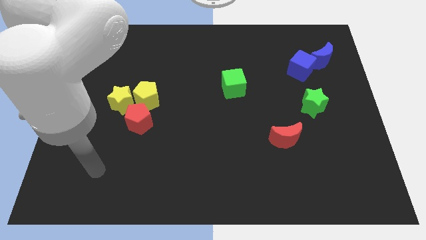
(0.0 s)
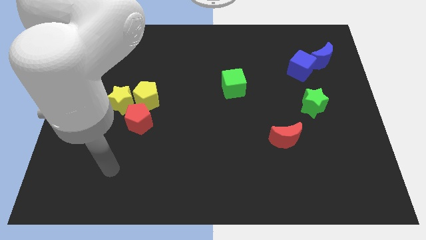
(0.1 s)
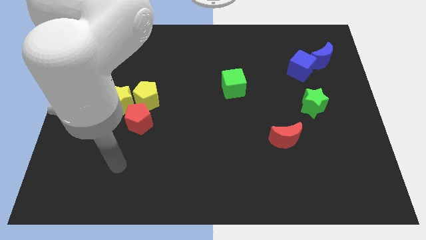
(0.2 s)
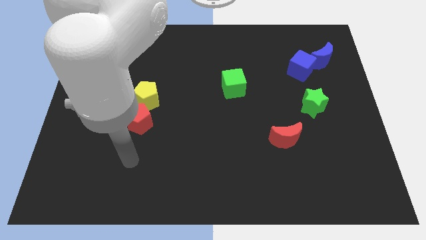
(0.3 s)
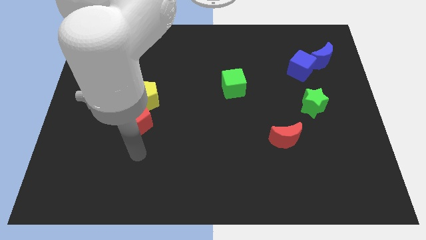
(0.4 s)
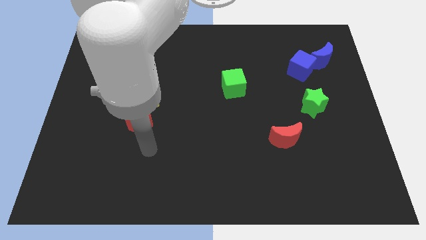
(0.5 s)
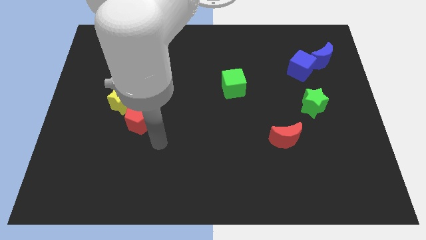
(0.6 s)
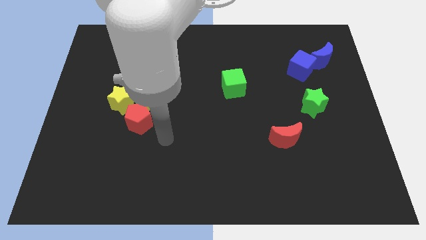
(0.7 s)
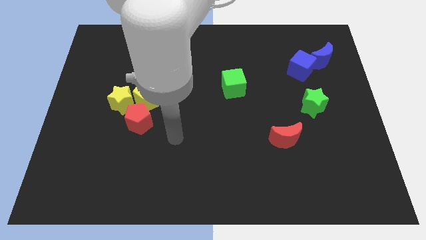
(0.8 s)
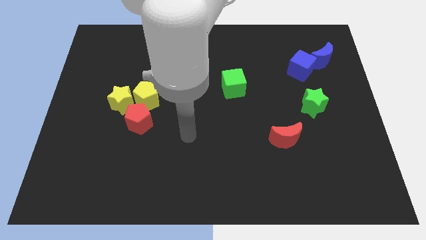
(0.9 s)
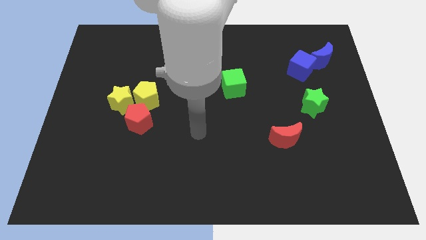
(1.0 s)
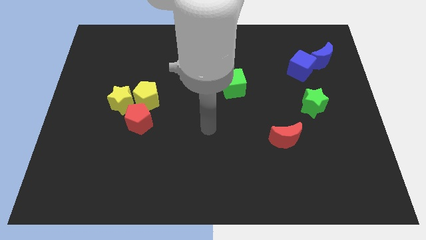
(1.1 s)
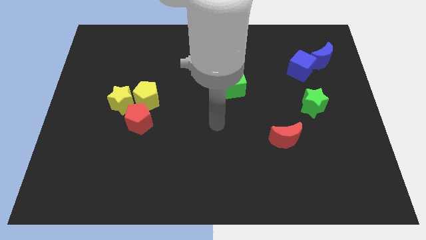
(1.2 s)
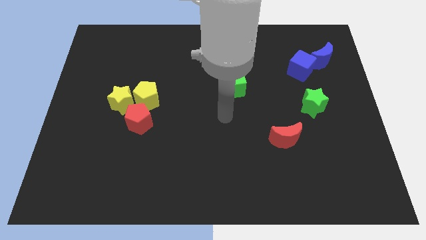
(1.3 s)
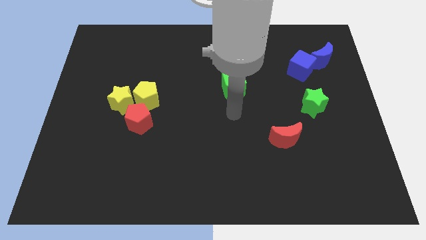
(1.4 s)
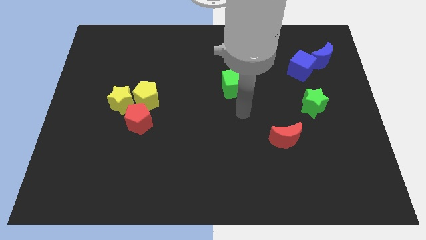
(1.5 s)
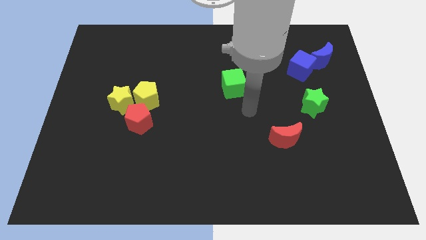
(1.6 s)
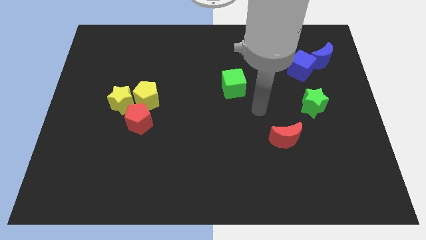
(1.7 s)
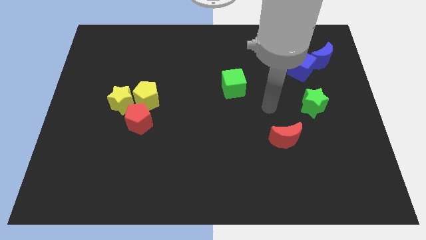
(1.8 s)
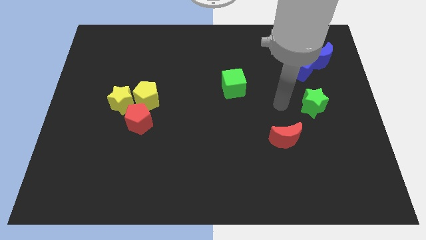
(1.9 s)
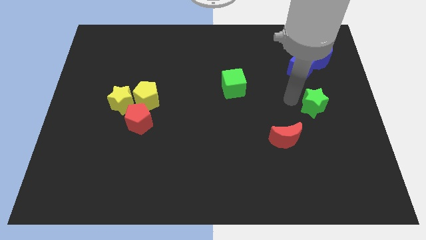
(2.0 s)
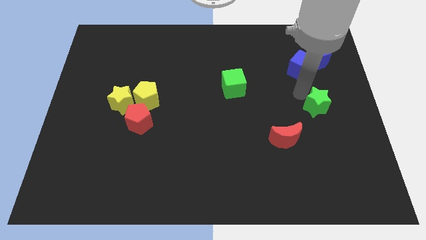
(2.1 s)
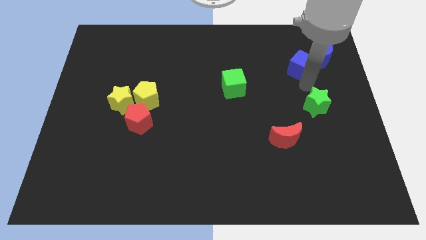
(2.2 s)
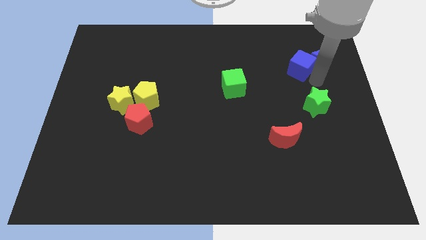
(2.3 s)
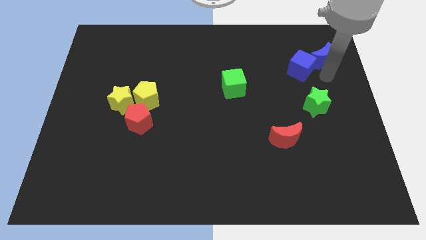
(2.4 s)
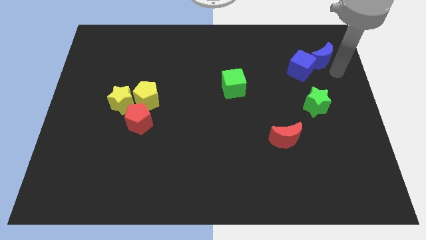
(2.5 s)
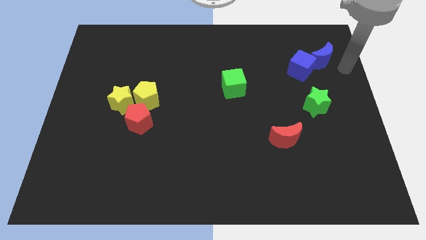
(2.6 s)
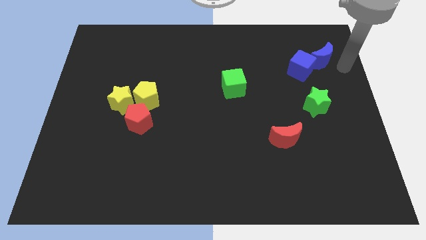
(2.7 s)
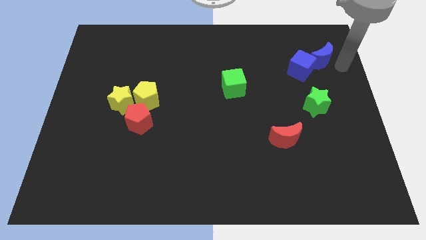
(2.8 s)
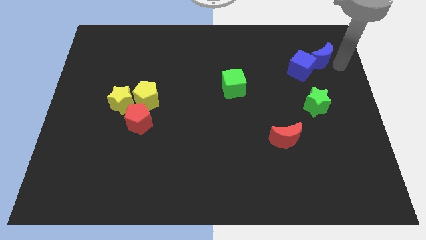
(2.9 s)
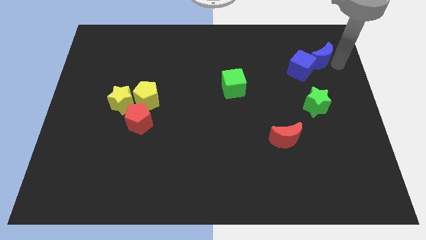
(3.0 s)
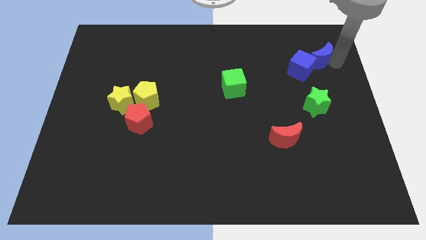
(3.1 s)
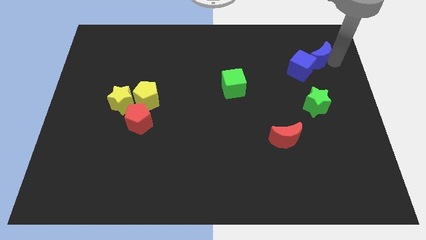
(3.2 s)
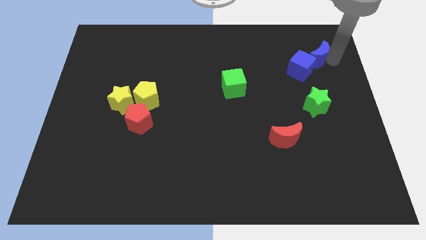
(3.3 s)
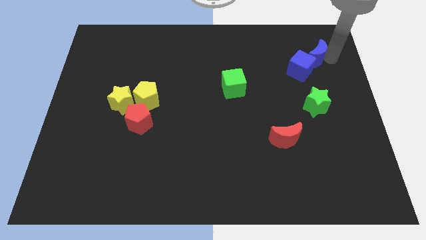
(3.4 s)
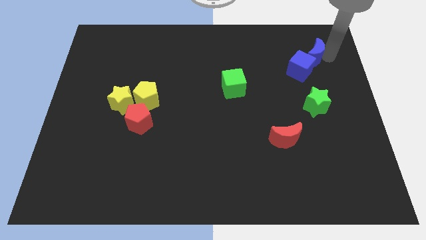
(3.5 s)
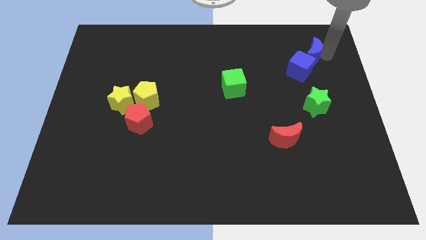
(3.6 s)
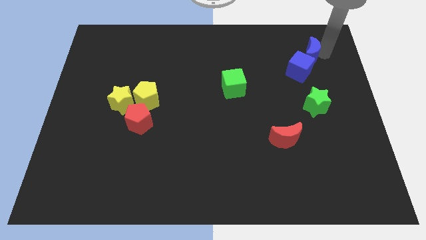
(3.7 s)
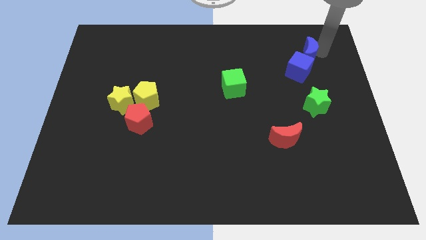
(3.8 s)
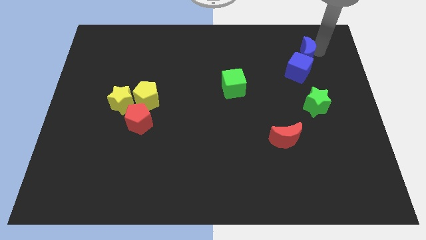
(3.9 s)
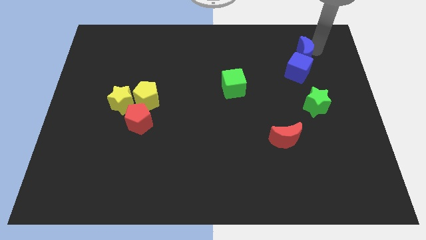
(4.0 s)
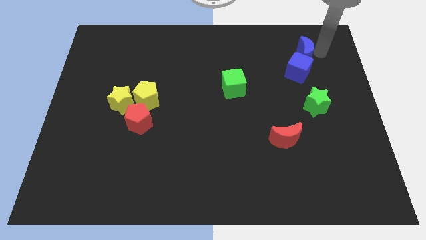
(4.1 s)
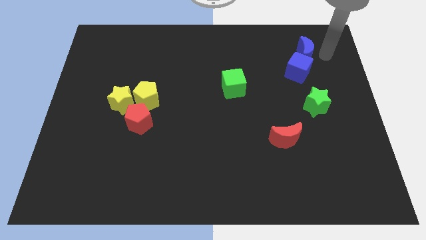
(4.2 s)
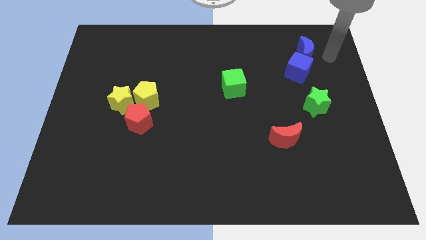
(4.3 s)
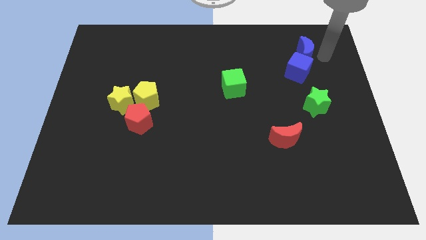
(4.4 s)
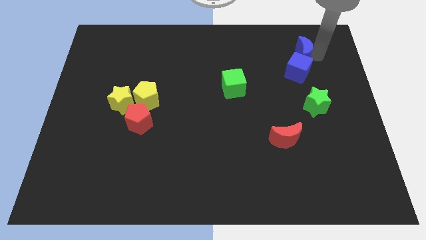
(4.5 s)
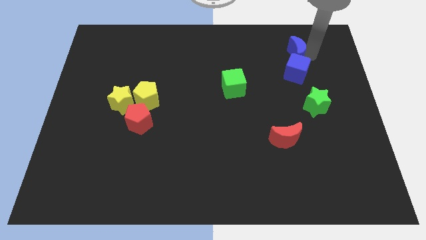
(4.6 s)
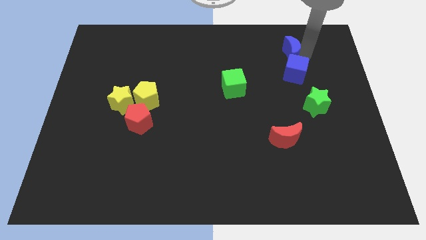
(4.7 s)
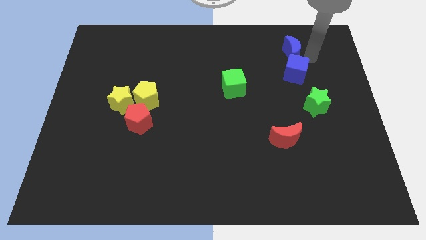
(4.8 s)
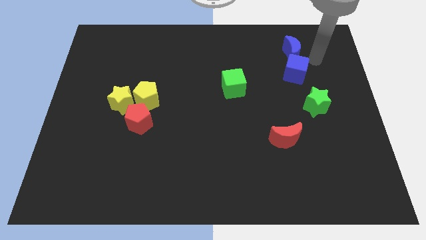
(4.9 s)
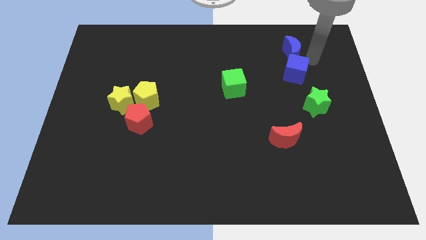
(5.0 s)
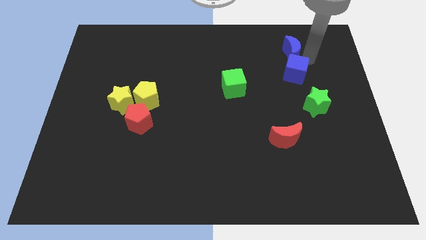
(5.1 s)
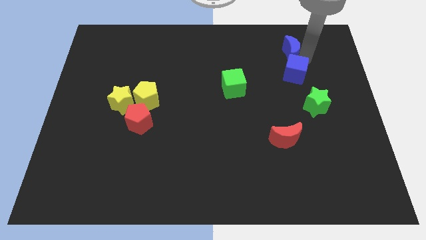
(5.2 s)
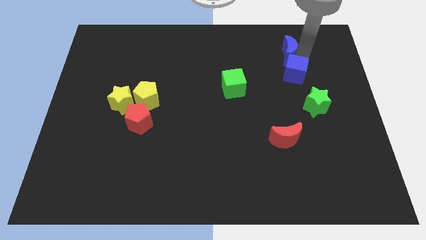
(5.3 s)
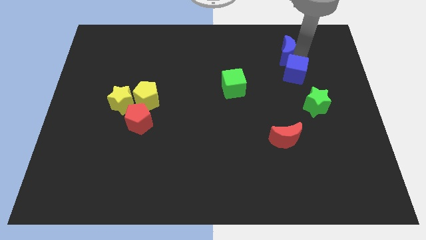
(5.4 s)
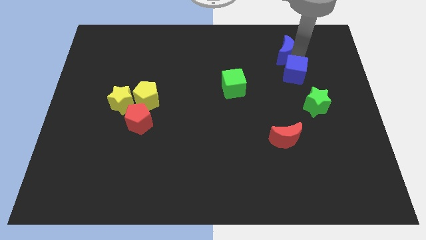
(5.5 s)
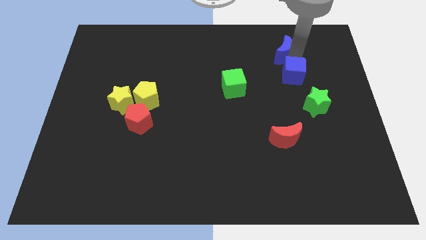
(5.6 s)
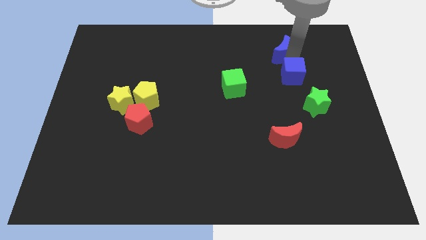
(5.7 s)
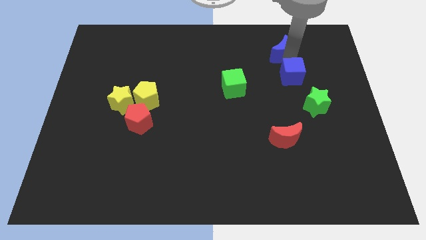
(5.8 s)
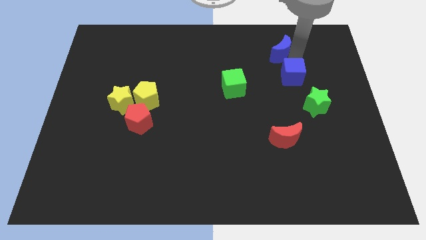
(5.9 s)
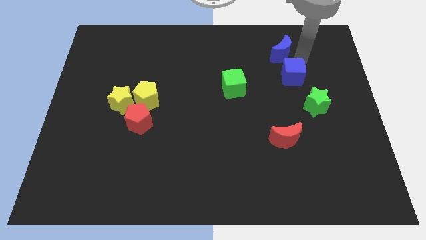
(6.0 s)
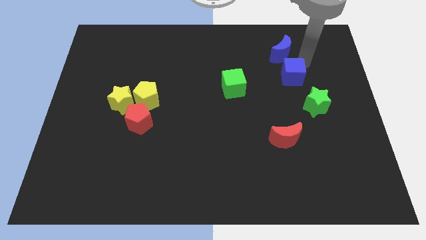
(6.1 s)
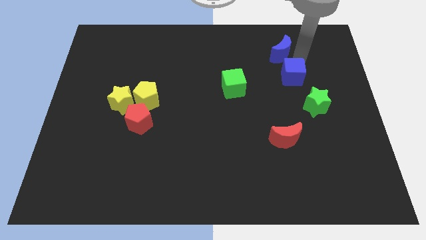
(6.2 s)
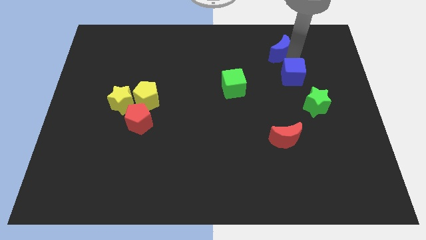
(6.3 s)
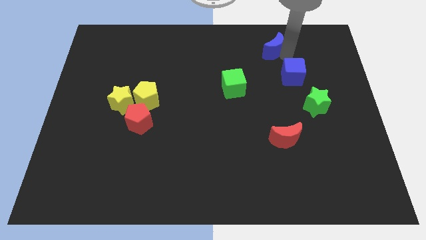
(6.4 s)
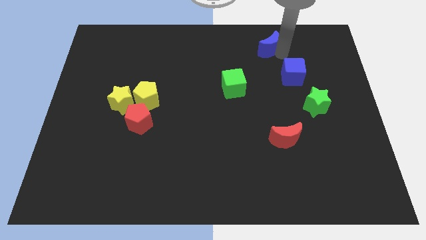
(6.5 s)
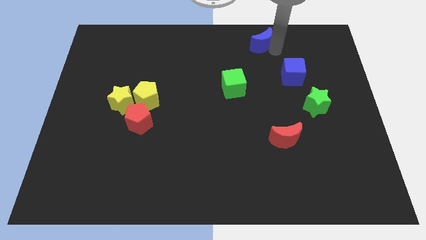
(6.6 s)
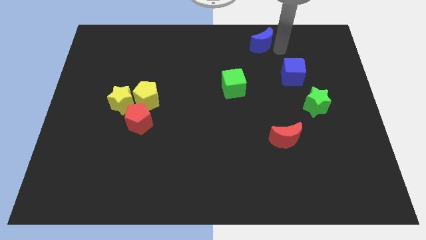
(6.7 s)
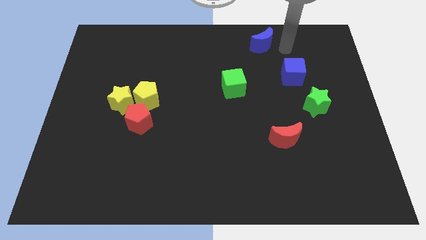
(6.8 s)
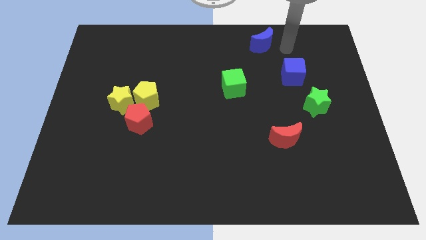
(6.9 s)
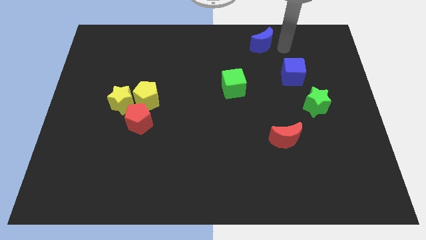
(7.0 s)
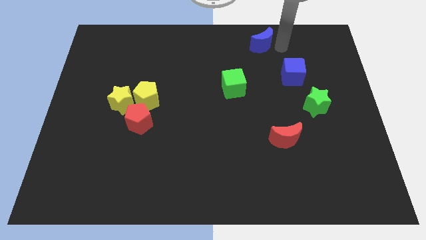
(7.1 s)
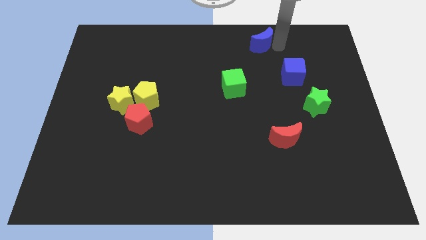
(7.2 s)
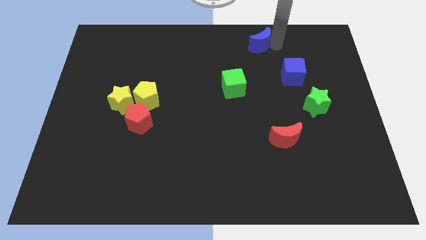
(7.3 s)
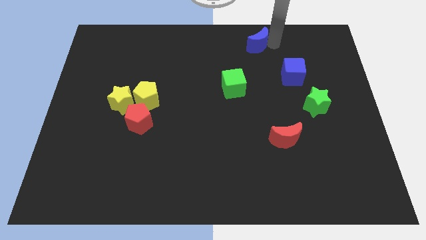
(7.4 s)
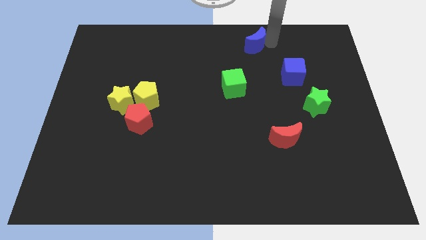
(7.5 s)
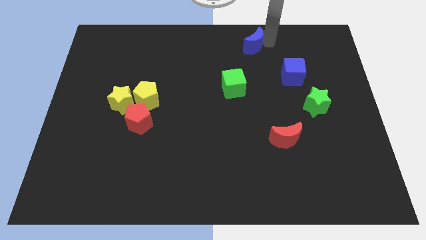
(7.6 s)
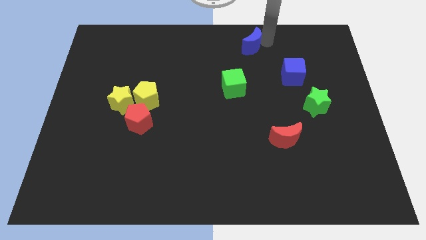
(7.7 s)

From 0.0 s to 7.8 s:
slide the blue moon to the top
